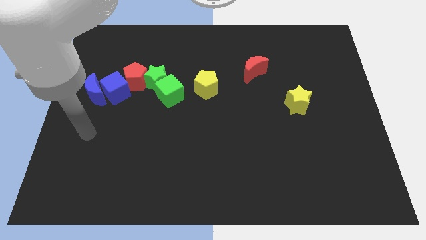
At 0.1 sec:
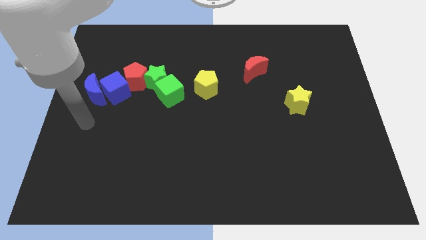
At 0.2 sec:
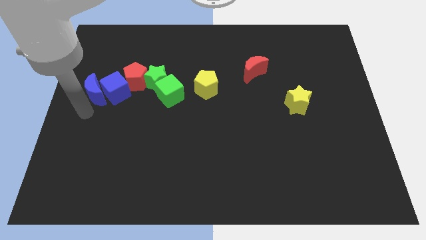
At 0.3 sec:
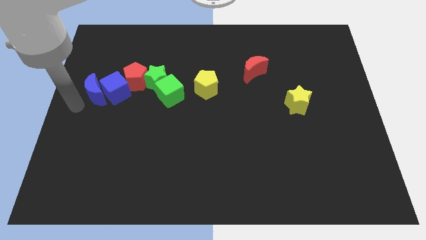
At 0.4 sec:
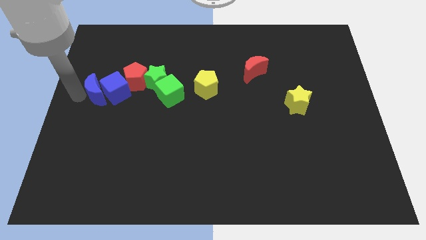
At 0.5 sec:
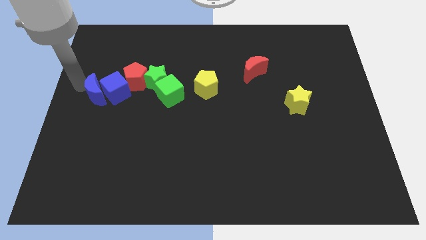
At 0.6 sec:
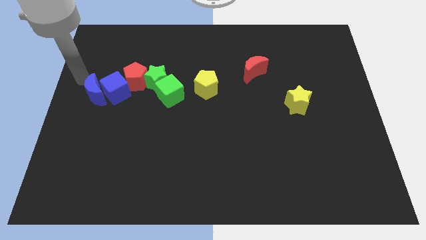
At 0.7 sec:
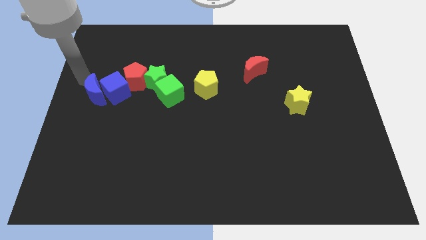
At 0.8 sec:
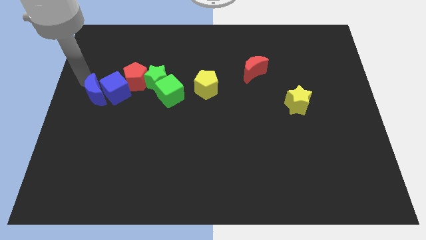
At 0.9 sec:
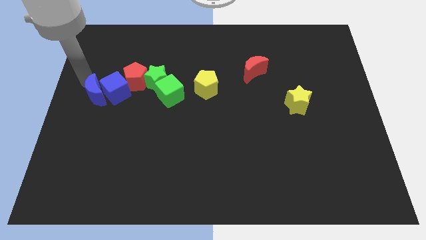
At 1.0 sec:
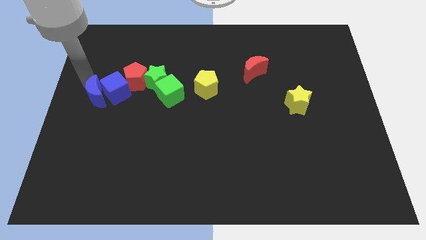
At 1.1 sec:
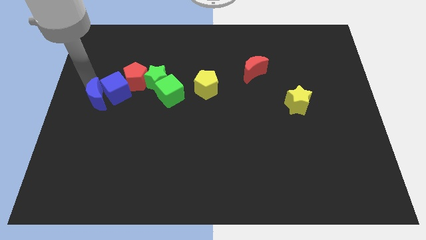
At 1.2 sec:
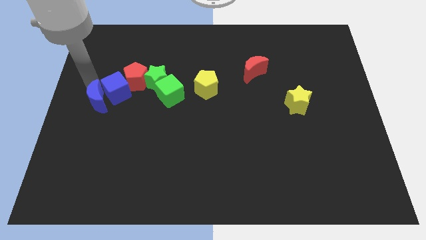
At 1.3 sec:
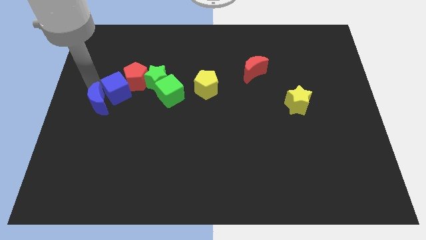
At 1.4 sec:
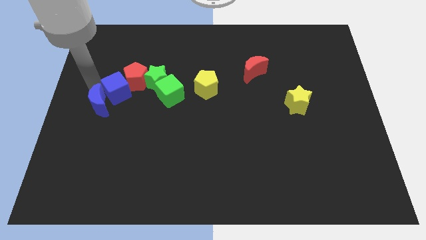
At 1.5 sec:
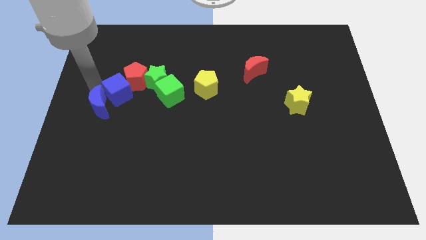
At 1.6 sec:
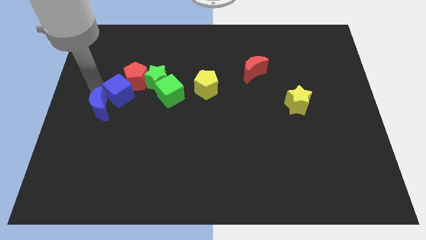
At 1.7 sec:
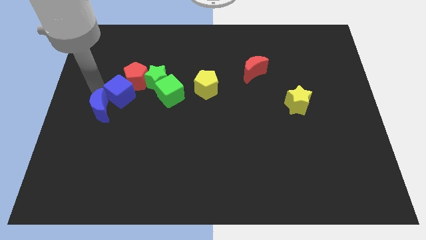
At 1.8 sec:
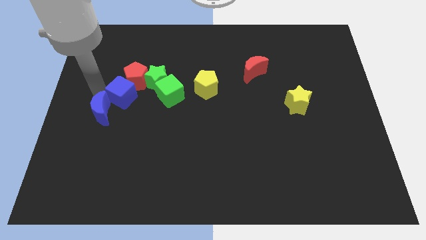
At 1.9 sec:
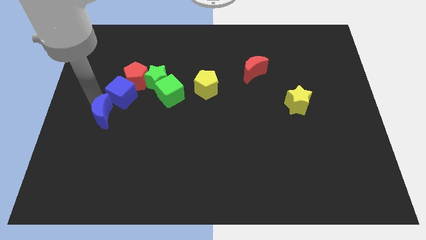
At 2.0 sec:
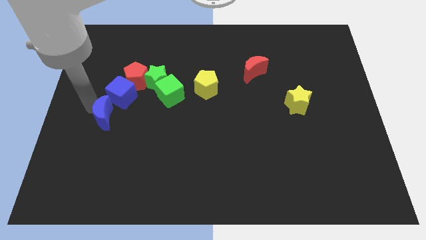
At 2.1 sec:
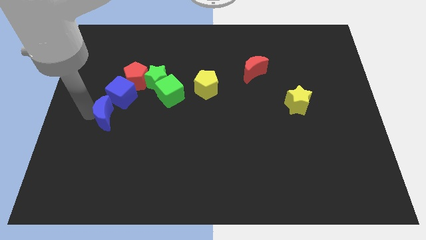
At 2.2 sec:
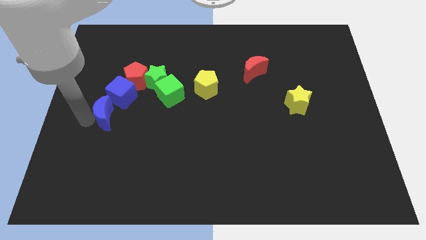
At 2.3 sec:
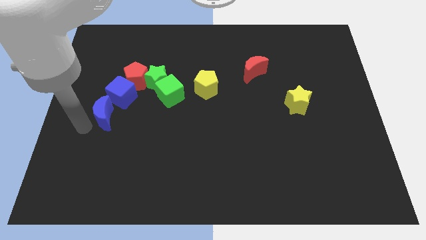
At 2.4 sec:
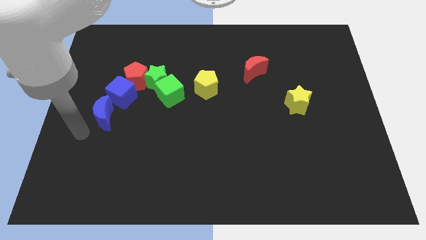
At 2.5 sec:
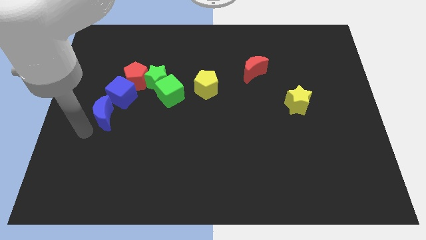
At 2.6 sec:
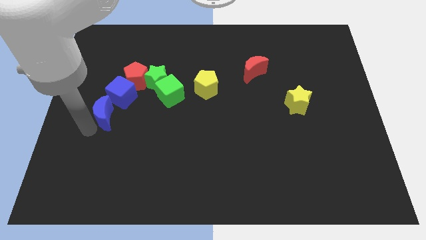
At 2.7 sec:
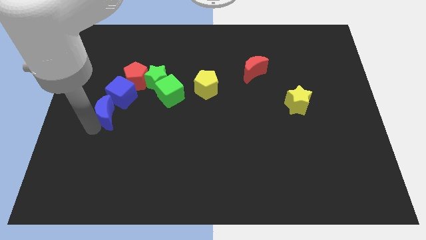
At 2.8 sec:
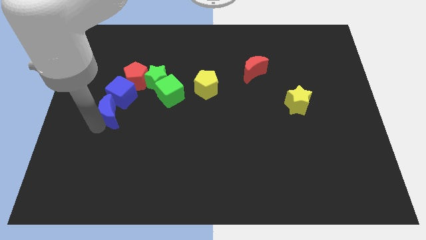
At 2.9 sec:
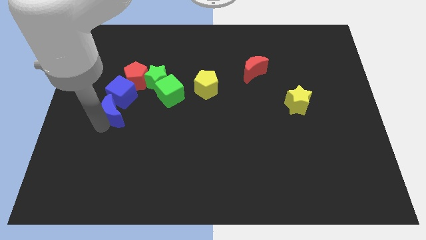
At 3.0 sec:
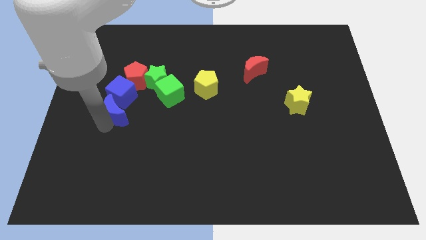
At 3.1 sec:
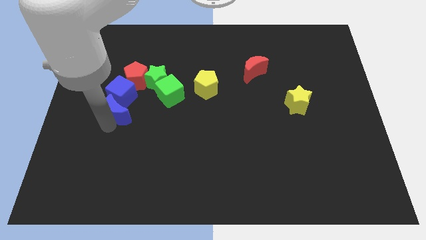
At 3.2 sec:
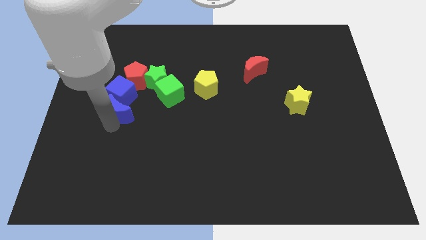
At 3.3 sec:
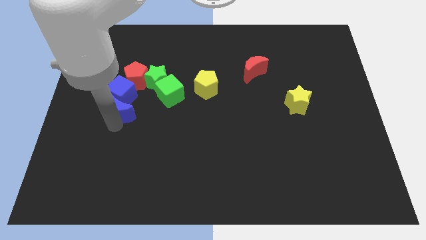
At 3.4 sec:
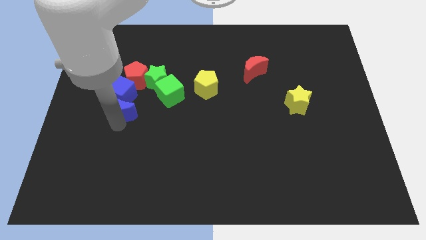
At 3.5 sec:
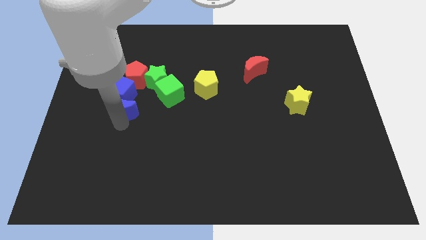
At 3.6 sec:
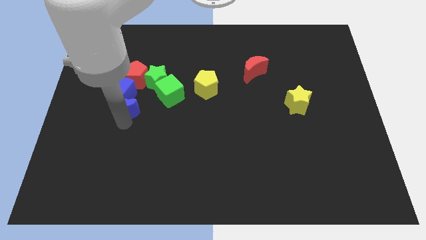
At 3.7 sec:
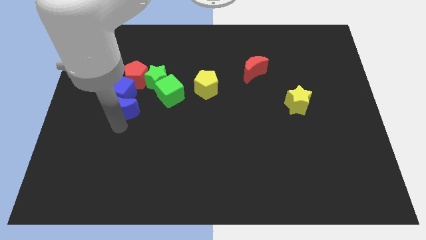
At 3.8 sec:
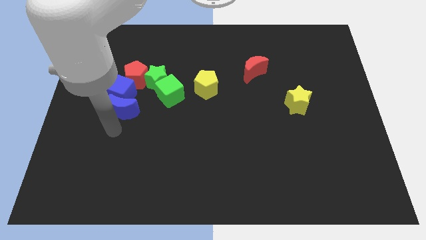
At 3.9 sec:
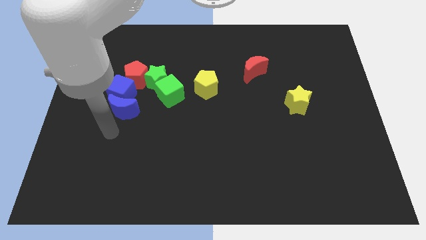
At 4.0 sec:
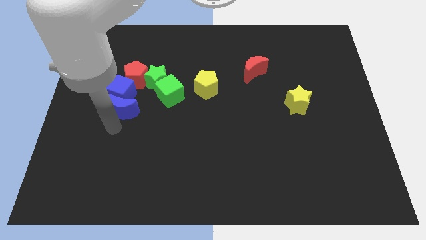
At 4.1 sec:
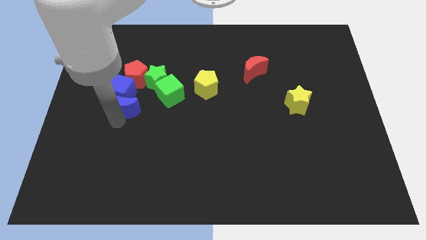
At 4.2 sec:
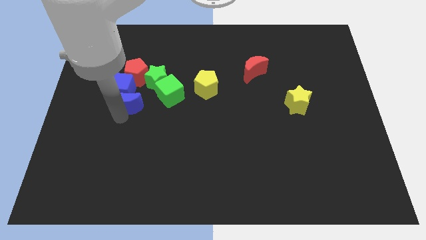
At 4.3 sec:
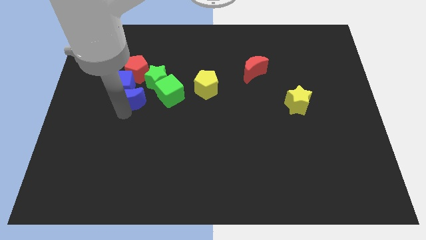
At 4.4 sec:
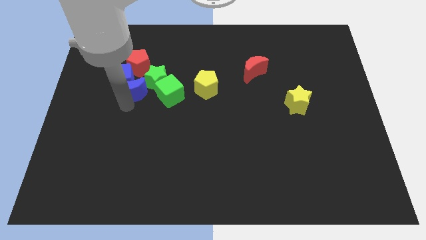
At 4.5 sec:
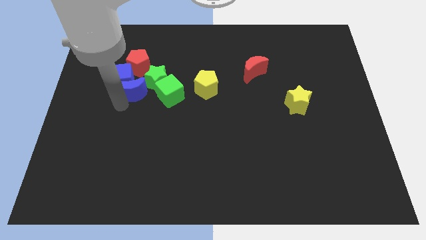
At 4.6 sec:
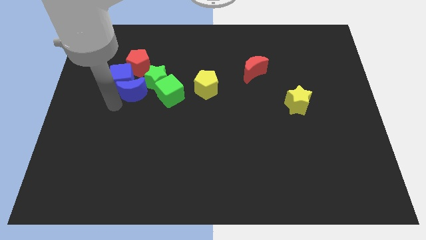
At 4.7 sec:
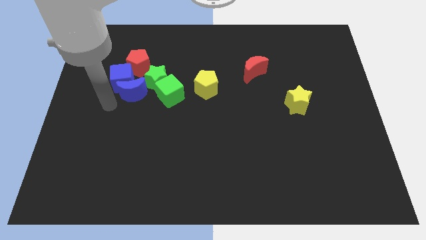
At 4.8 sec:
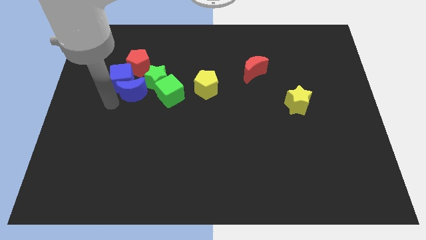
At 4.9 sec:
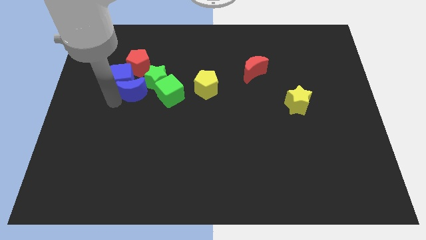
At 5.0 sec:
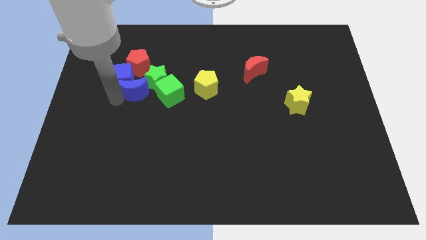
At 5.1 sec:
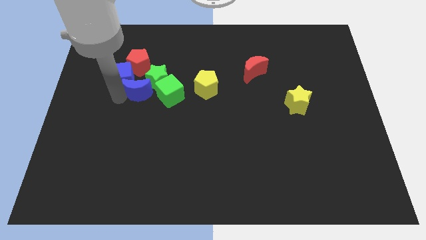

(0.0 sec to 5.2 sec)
move the blue moon next to the green star

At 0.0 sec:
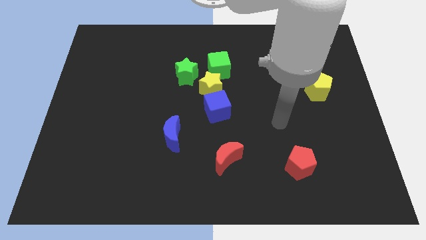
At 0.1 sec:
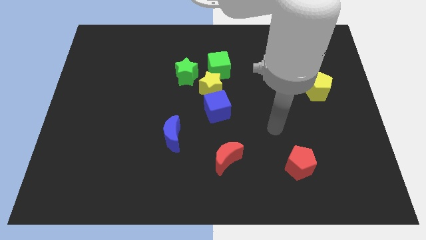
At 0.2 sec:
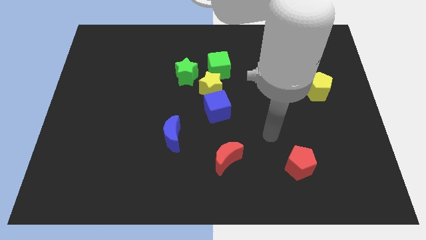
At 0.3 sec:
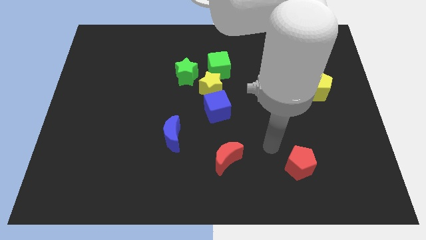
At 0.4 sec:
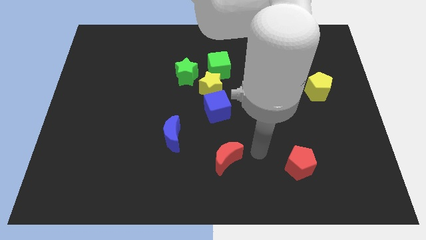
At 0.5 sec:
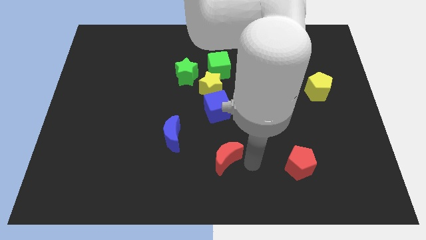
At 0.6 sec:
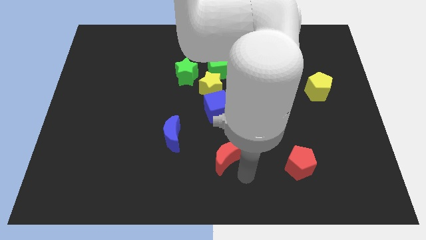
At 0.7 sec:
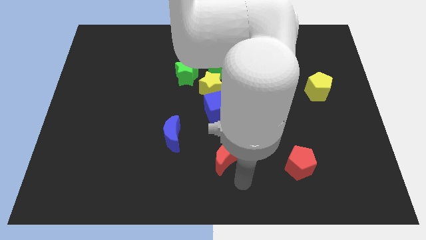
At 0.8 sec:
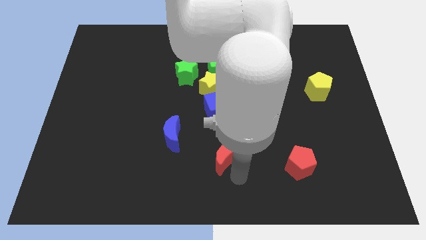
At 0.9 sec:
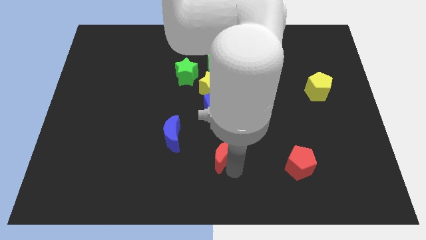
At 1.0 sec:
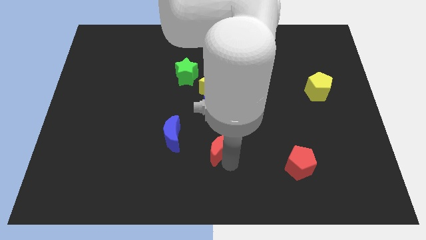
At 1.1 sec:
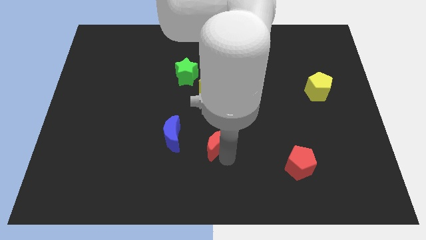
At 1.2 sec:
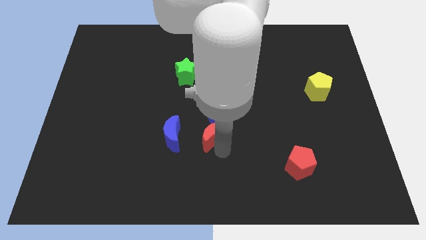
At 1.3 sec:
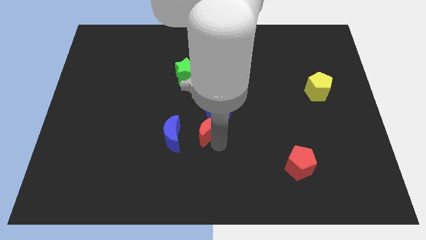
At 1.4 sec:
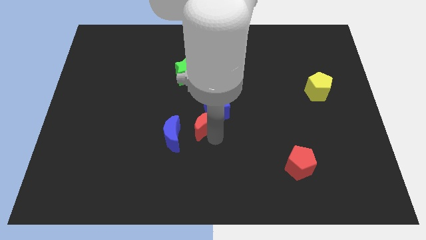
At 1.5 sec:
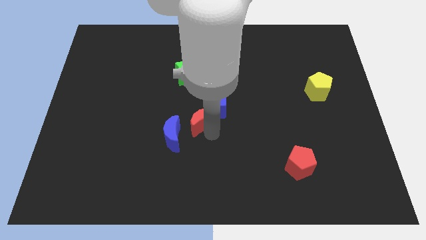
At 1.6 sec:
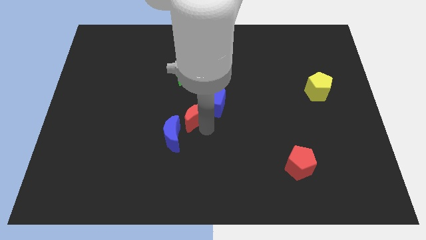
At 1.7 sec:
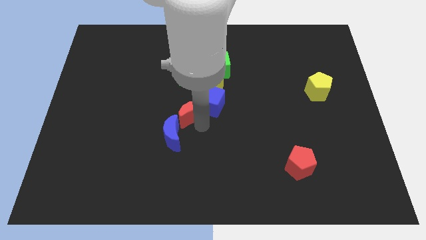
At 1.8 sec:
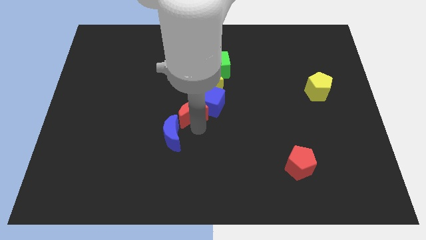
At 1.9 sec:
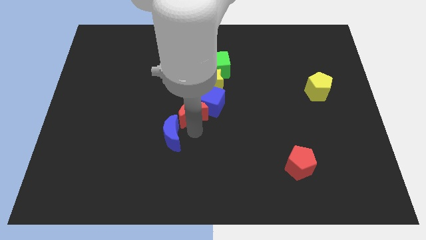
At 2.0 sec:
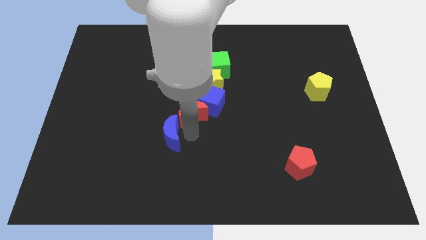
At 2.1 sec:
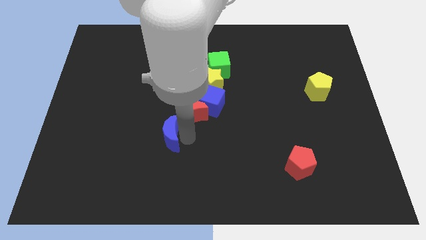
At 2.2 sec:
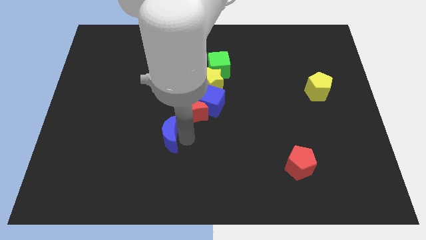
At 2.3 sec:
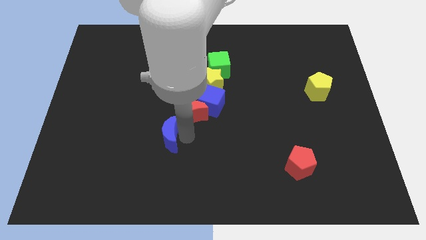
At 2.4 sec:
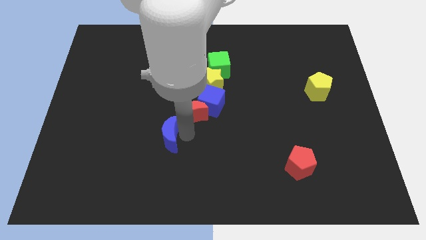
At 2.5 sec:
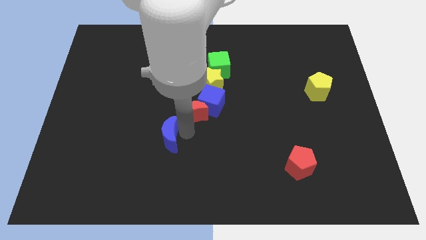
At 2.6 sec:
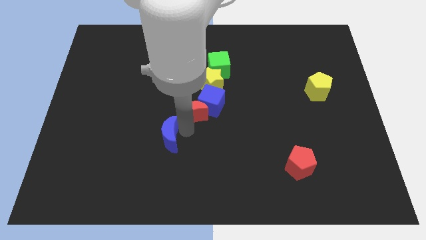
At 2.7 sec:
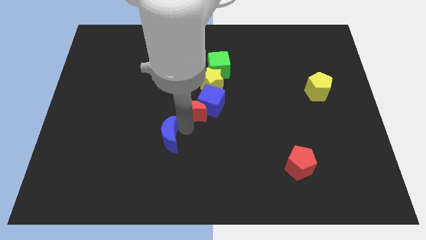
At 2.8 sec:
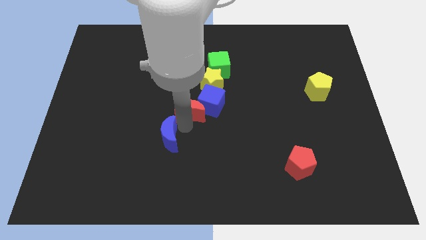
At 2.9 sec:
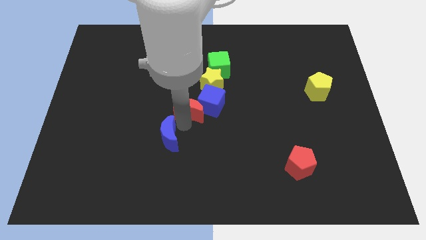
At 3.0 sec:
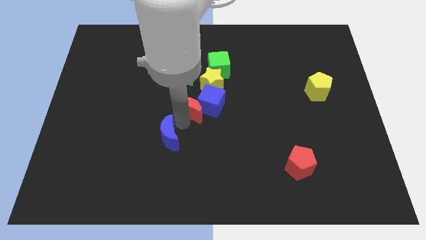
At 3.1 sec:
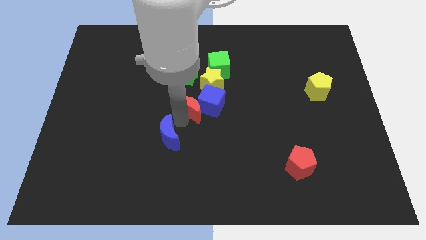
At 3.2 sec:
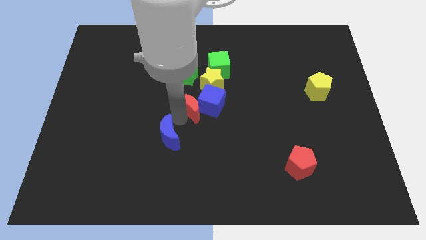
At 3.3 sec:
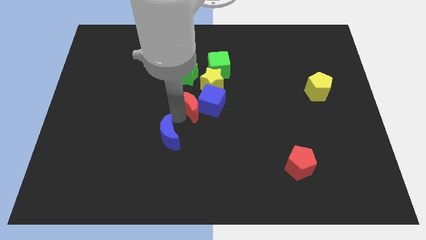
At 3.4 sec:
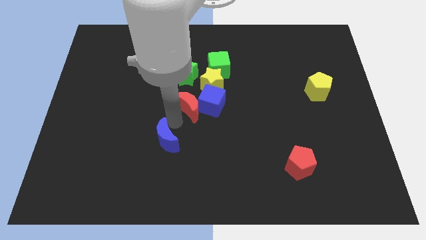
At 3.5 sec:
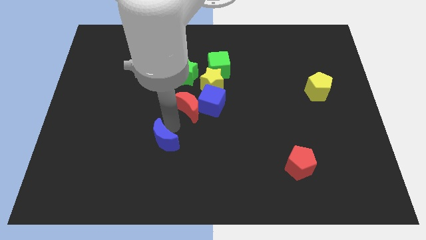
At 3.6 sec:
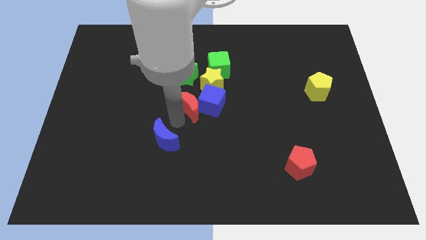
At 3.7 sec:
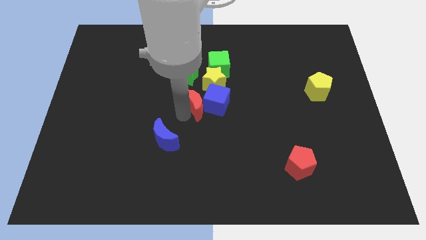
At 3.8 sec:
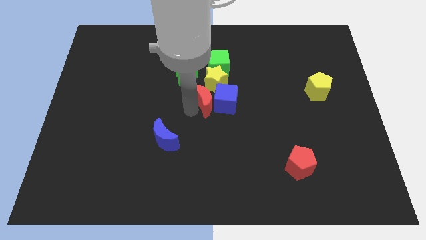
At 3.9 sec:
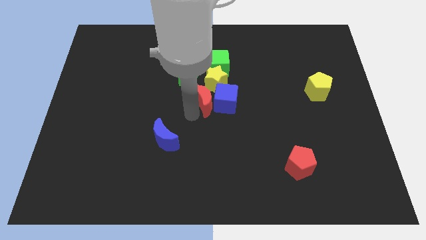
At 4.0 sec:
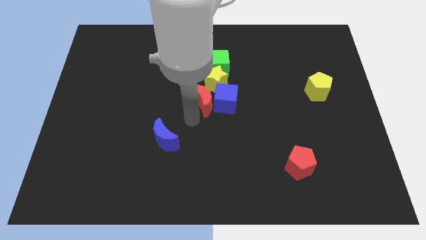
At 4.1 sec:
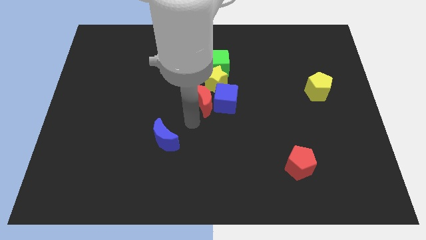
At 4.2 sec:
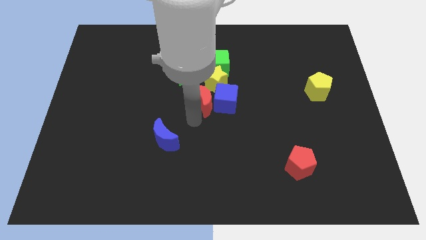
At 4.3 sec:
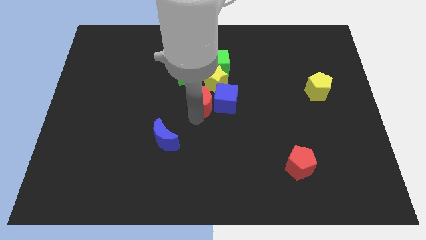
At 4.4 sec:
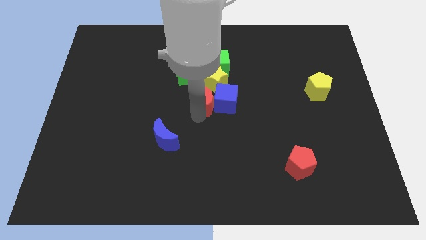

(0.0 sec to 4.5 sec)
move the red moon towards the yellow star
